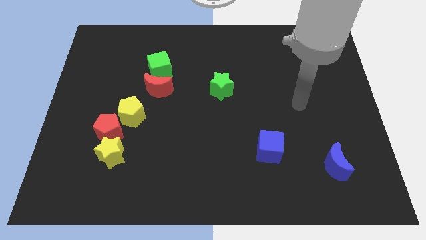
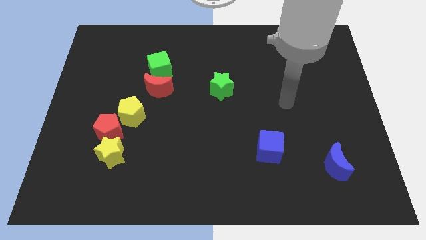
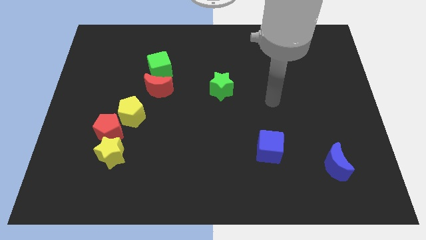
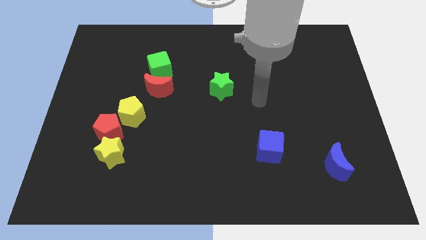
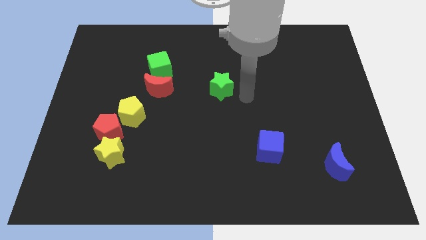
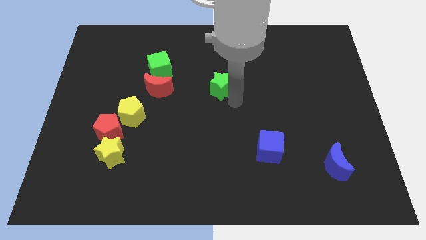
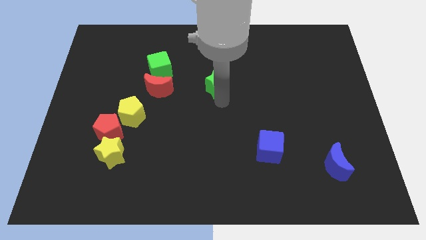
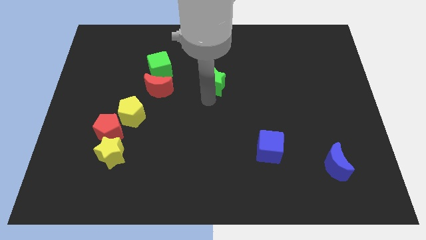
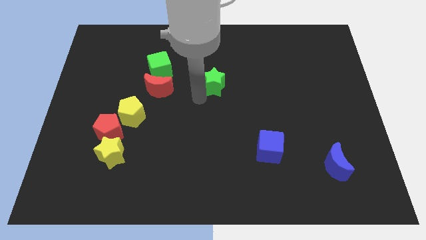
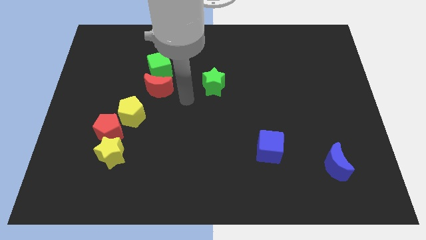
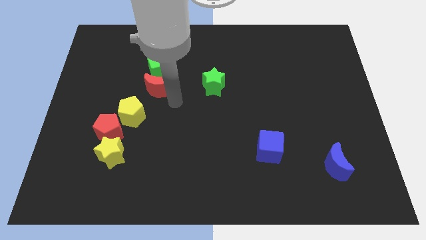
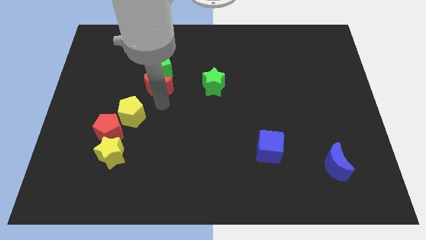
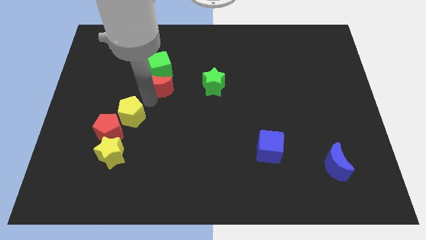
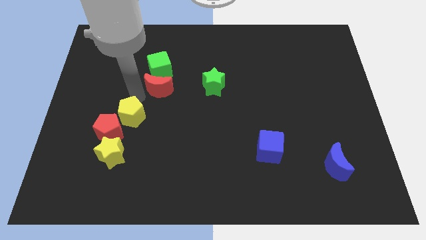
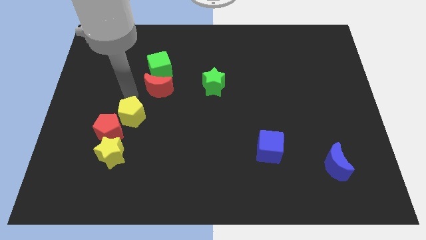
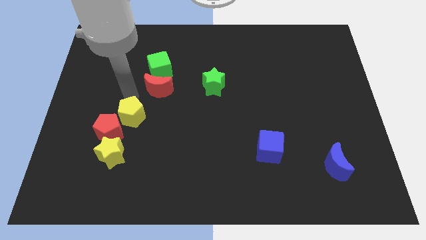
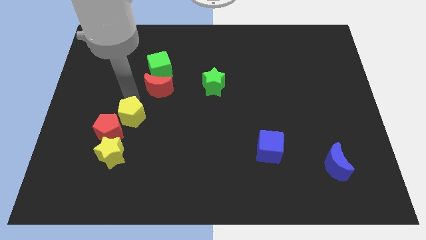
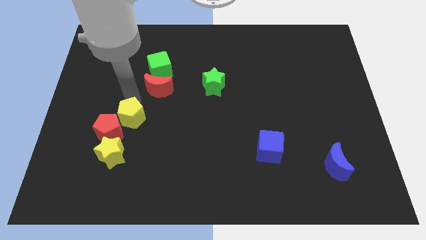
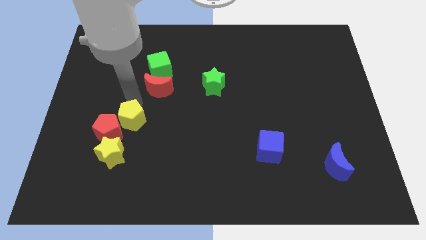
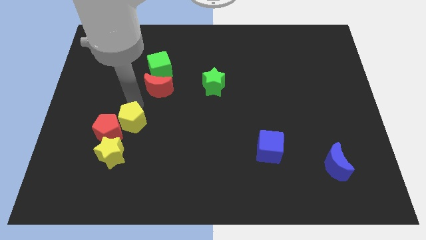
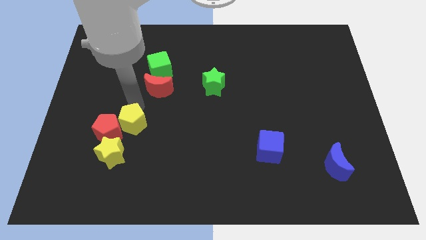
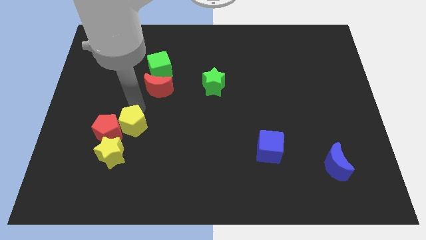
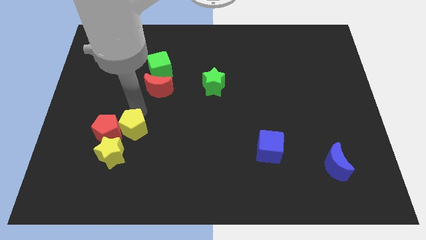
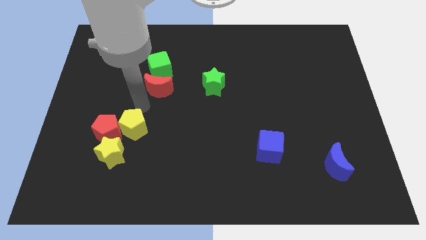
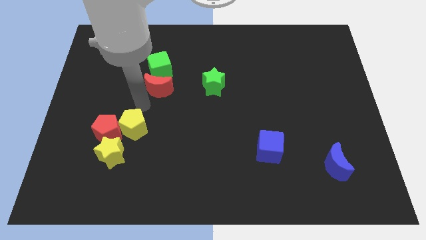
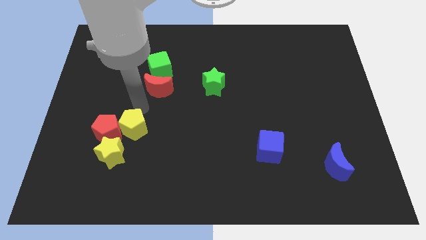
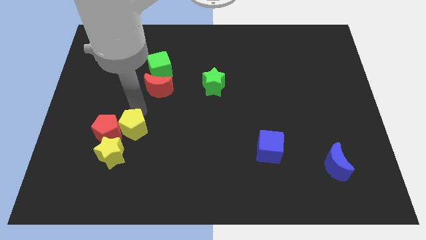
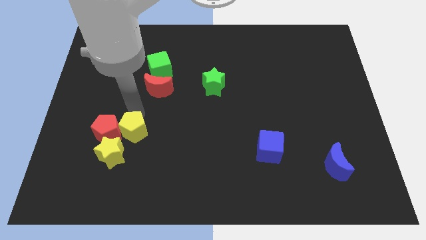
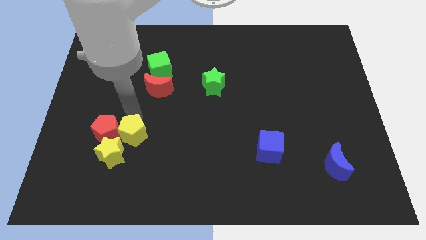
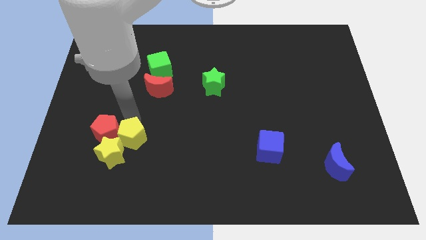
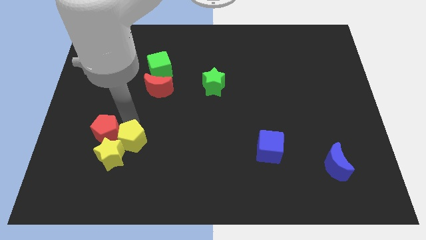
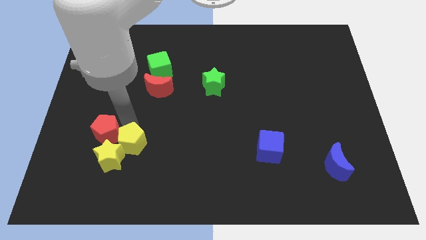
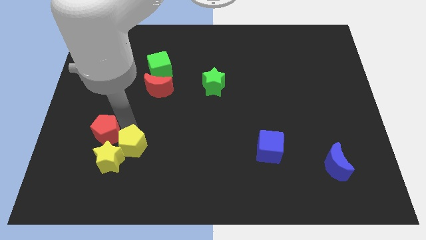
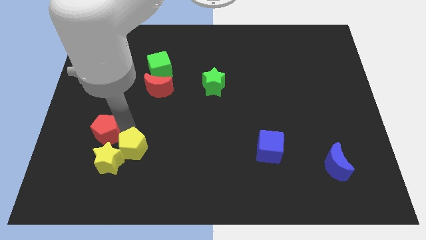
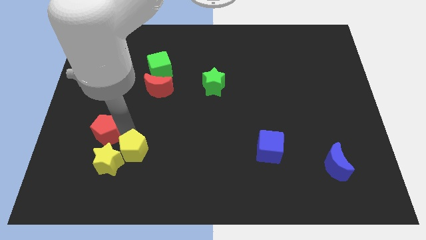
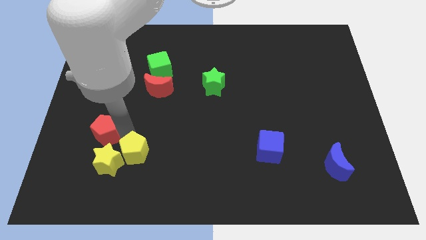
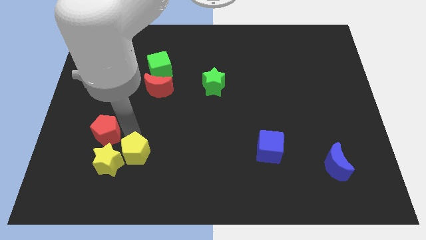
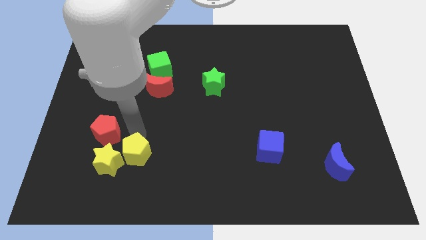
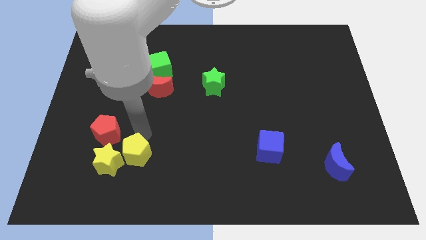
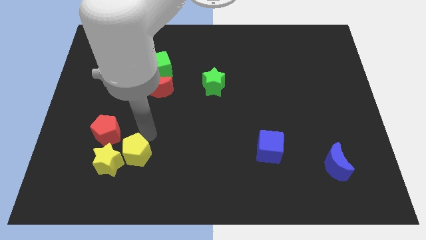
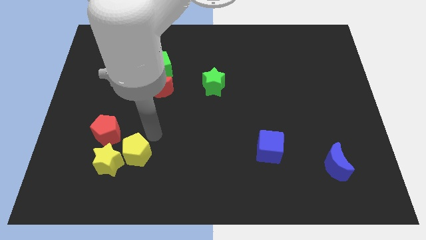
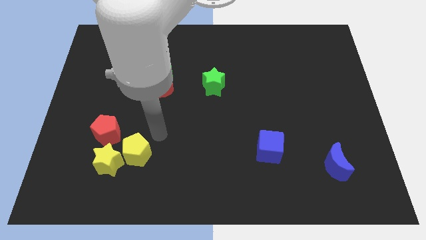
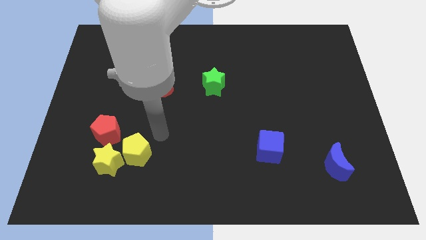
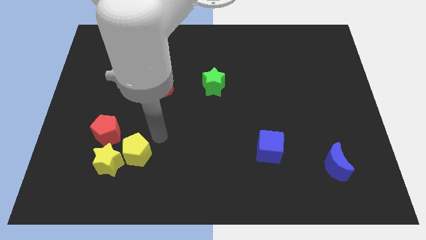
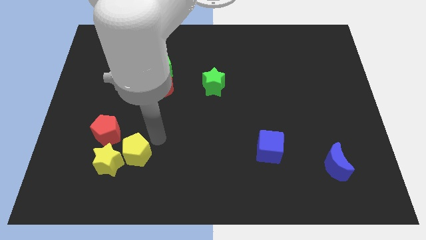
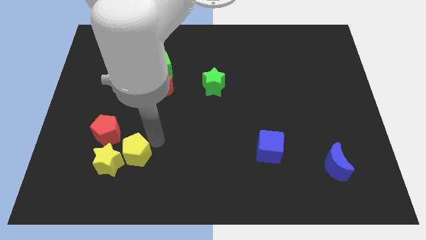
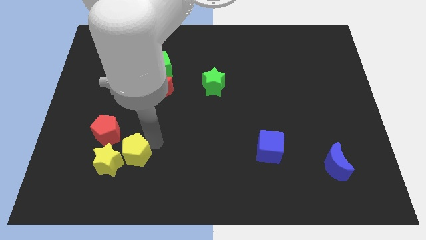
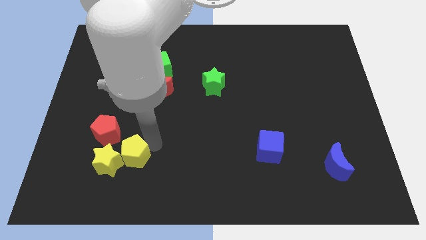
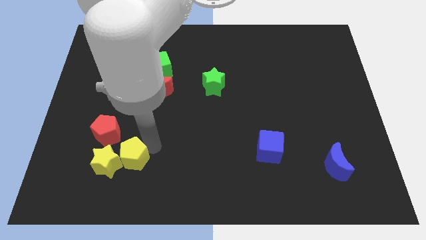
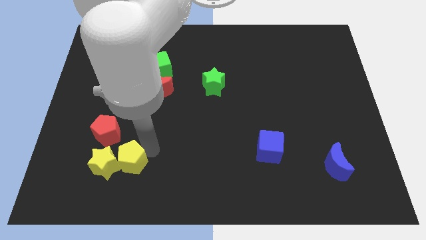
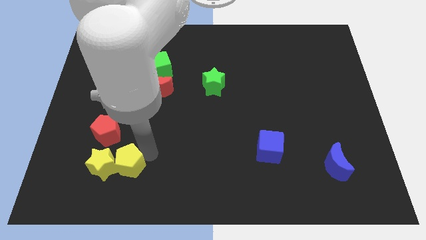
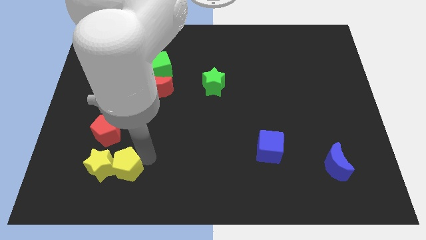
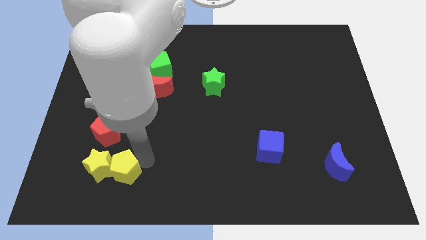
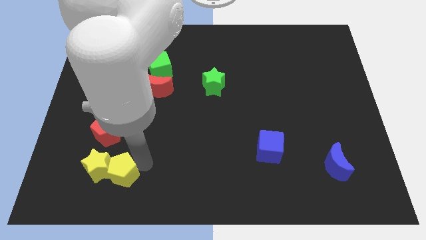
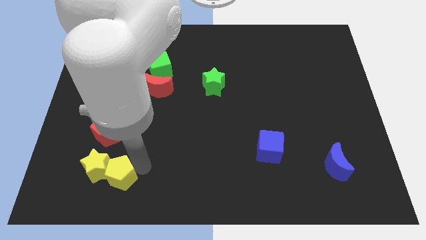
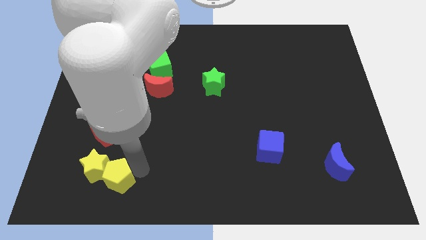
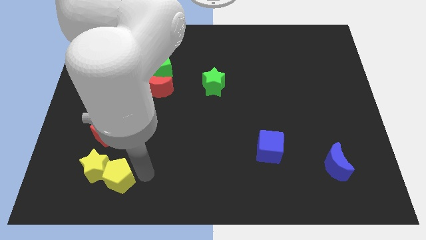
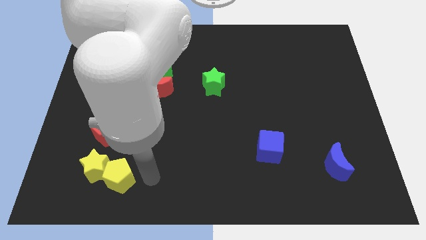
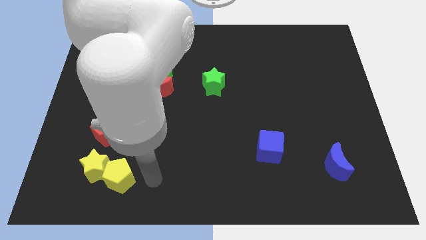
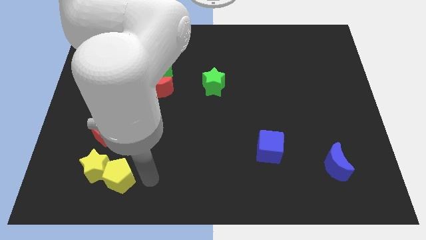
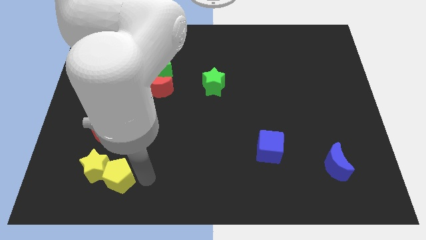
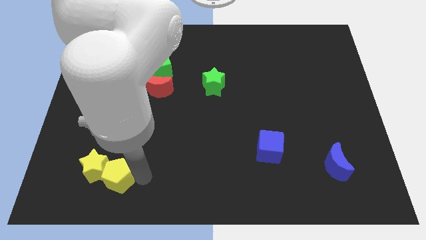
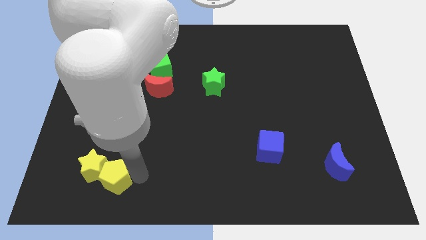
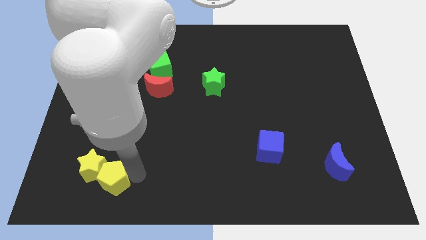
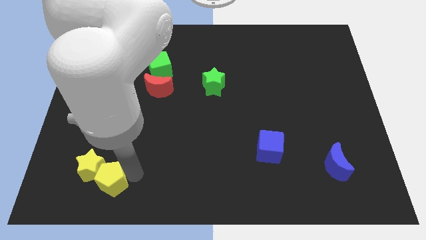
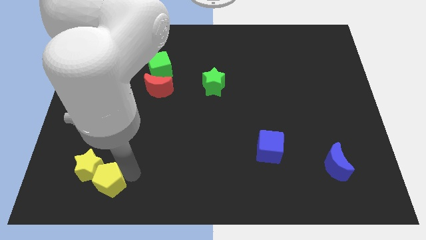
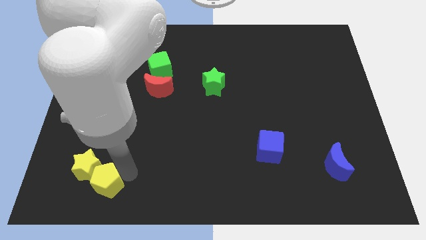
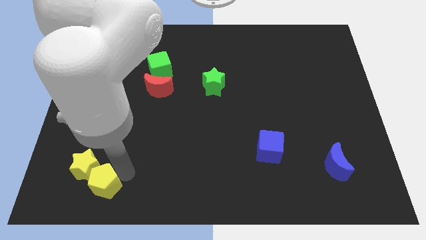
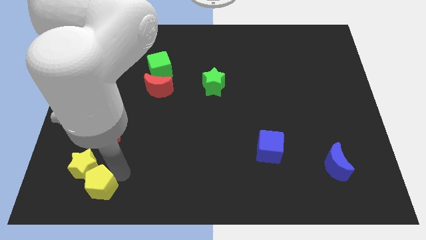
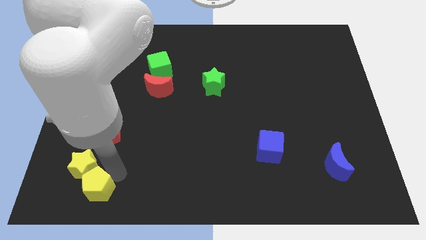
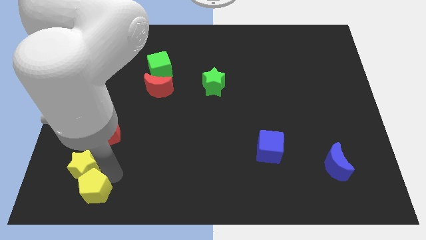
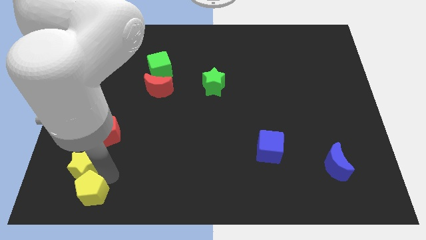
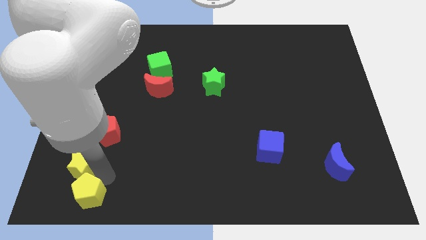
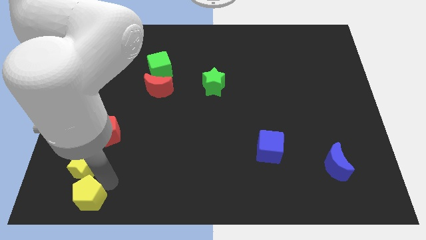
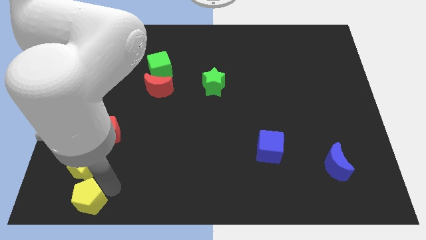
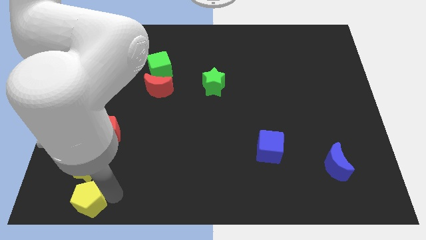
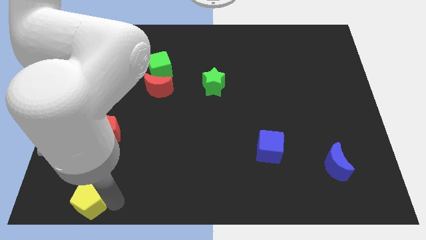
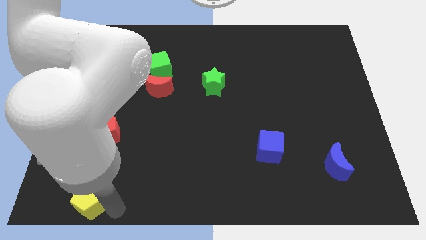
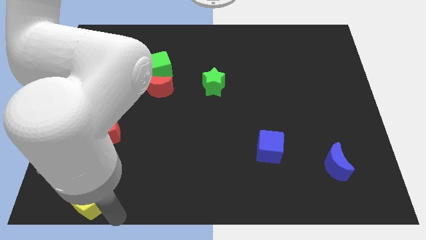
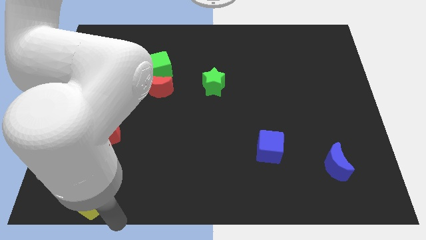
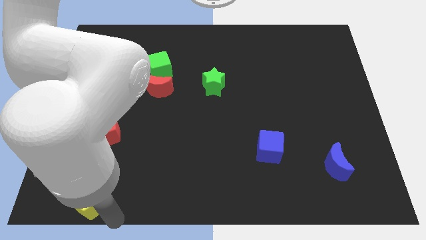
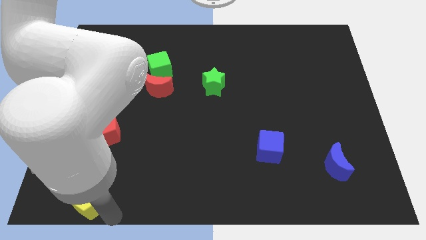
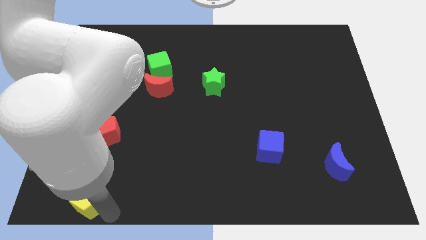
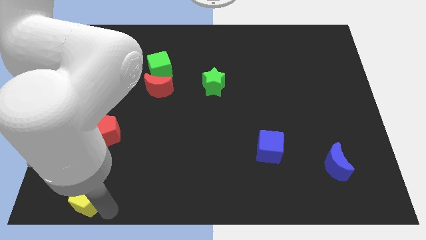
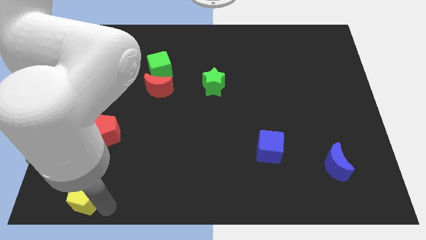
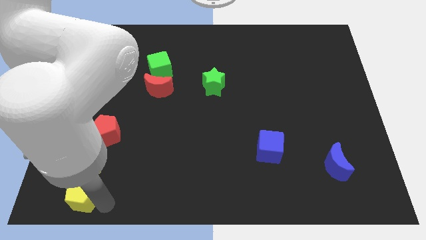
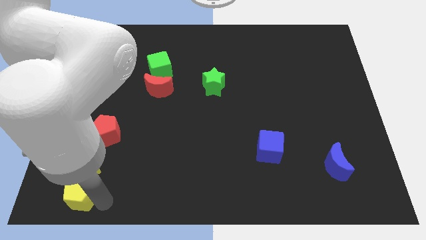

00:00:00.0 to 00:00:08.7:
move the yellow pentagon to the bottom left
